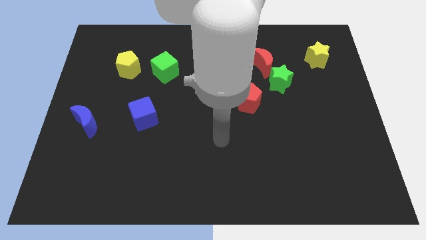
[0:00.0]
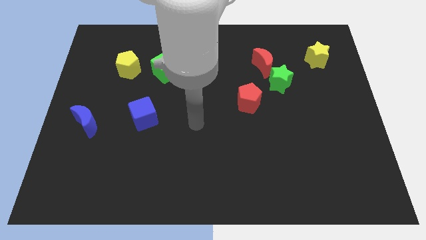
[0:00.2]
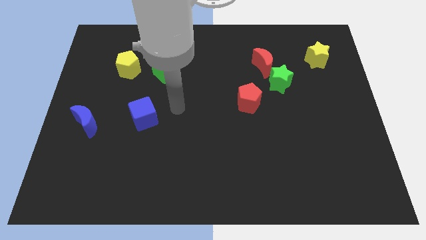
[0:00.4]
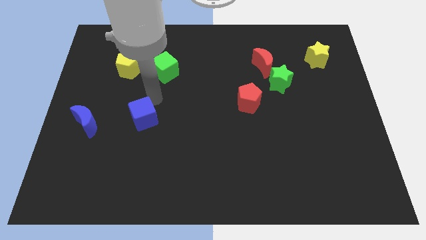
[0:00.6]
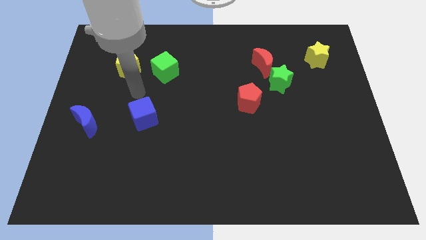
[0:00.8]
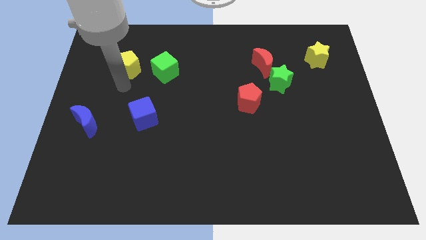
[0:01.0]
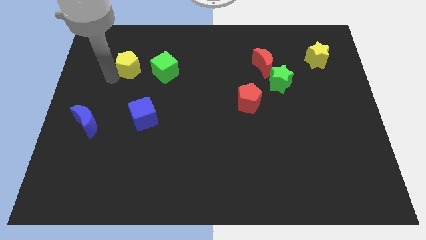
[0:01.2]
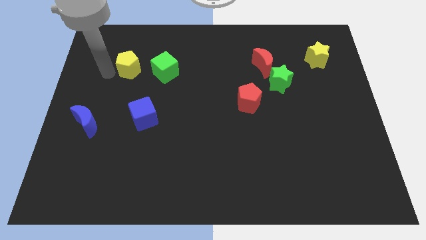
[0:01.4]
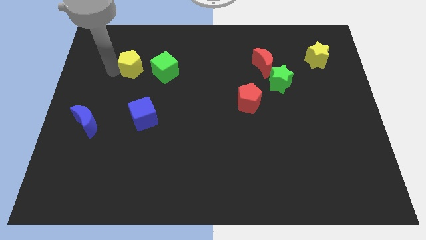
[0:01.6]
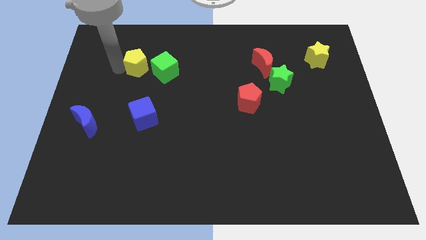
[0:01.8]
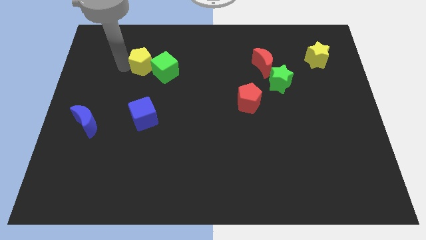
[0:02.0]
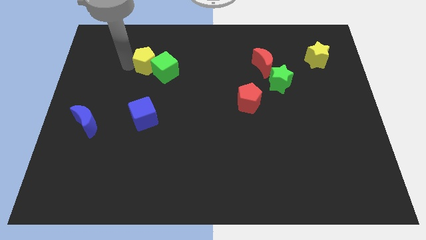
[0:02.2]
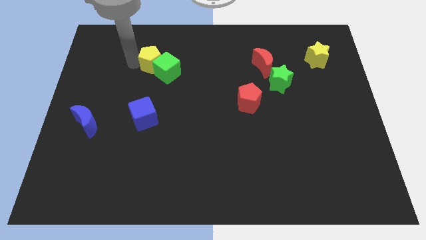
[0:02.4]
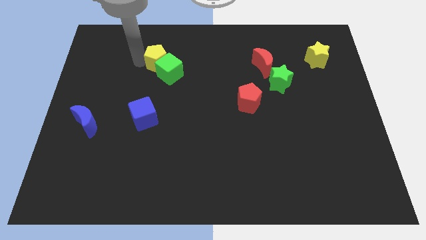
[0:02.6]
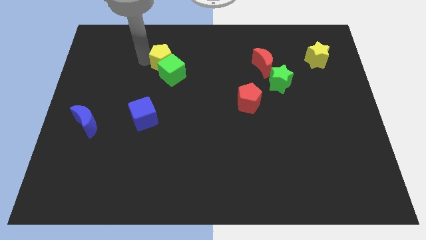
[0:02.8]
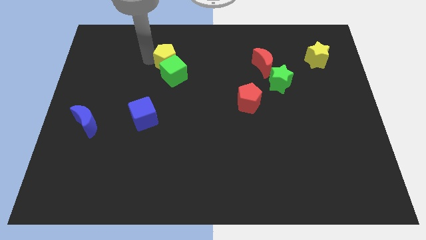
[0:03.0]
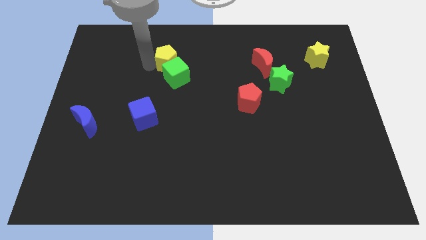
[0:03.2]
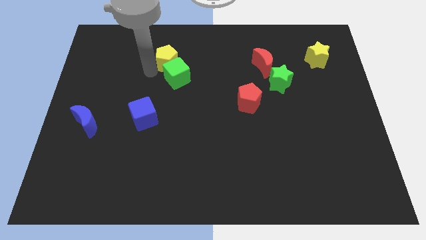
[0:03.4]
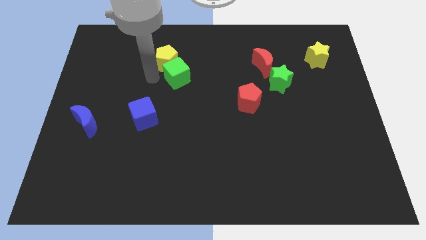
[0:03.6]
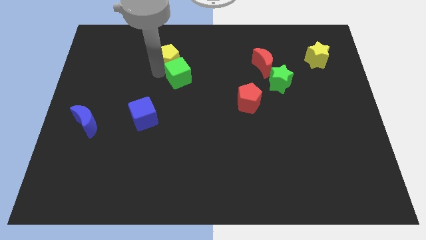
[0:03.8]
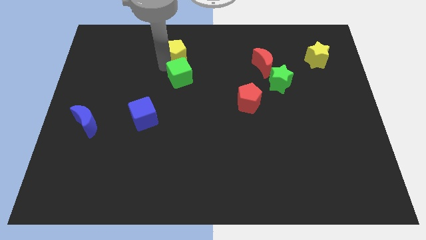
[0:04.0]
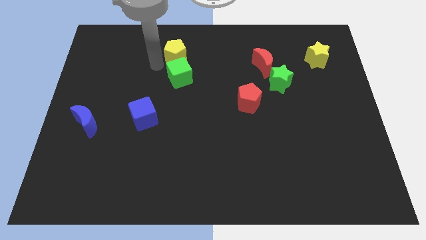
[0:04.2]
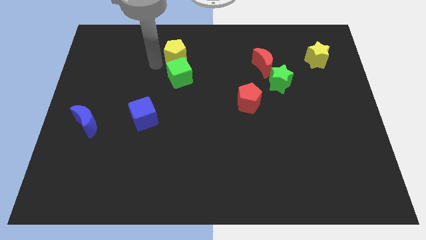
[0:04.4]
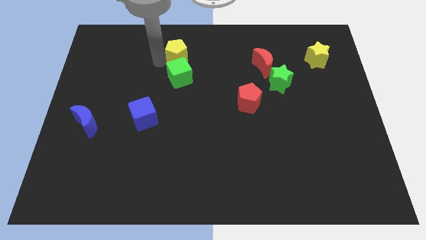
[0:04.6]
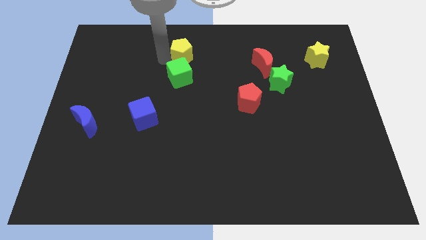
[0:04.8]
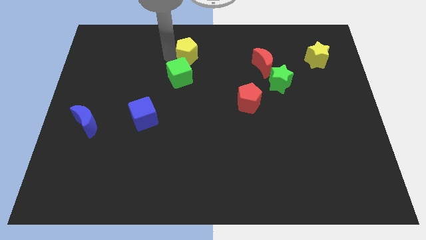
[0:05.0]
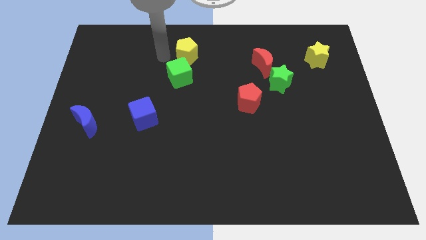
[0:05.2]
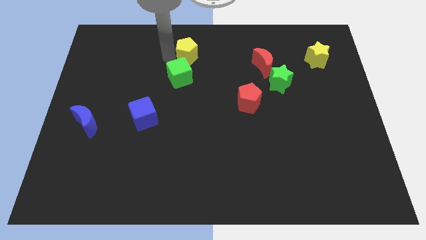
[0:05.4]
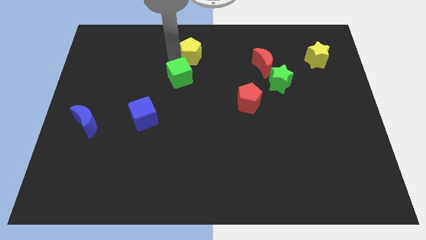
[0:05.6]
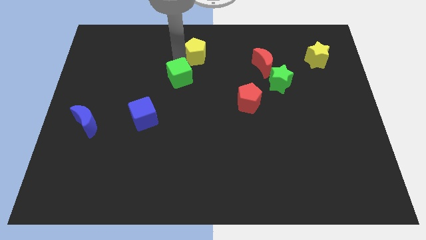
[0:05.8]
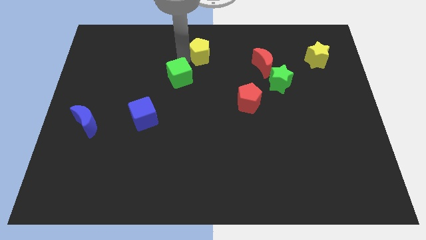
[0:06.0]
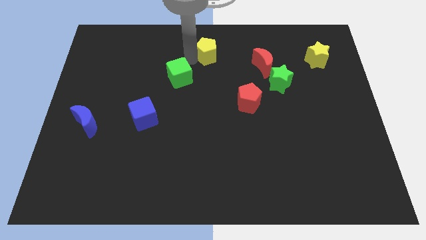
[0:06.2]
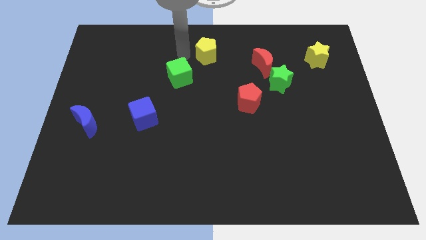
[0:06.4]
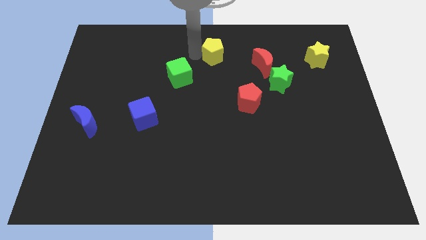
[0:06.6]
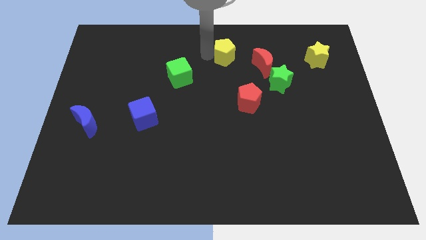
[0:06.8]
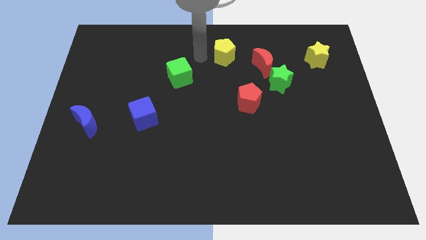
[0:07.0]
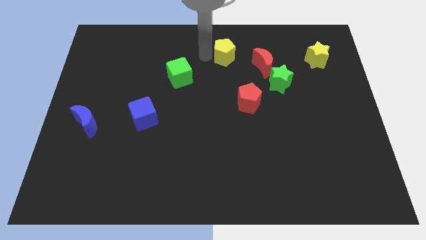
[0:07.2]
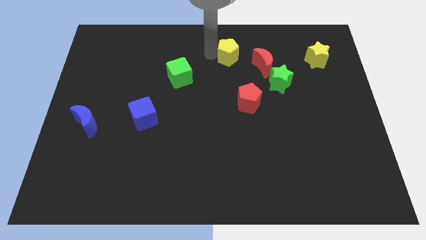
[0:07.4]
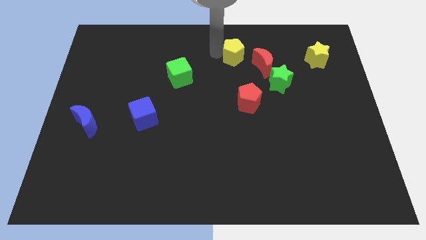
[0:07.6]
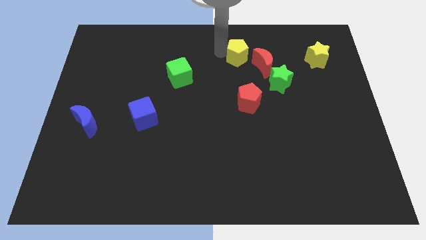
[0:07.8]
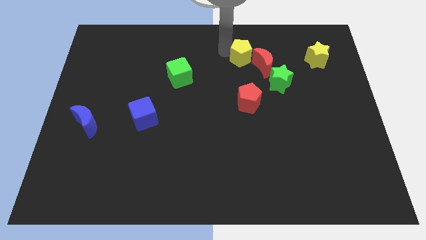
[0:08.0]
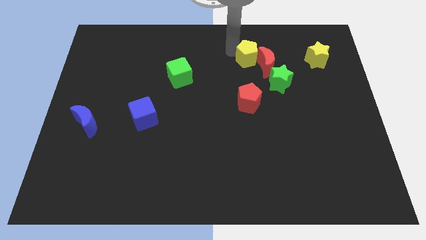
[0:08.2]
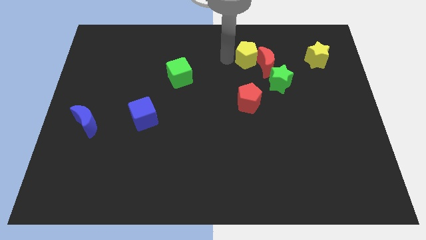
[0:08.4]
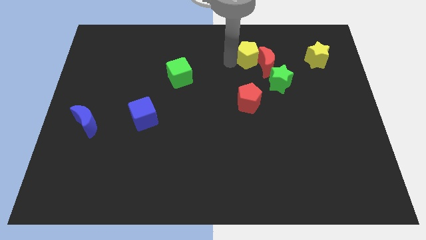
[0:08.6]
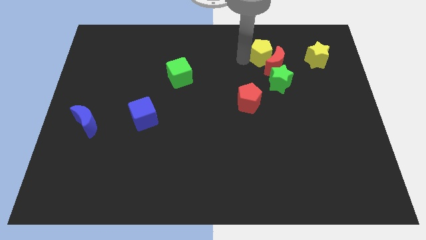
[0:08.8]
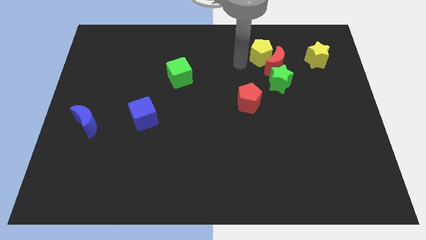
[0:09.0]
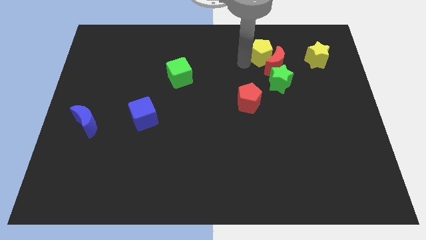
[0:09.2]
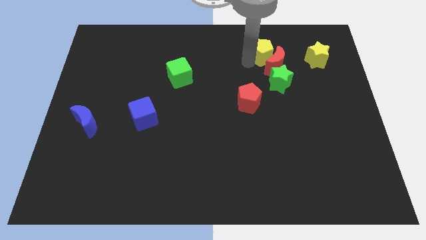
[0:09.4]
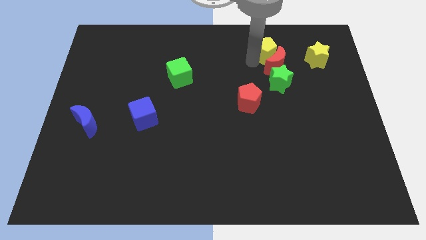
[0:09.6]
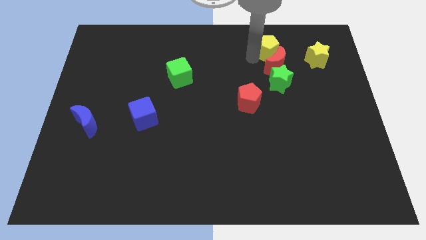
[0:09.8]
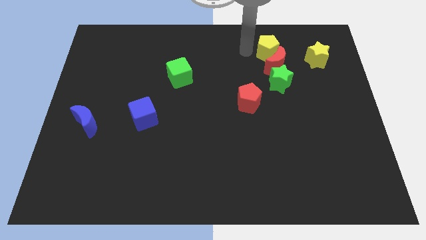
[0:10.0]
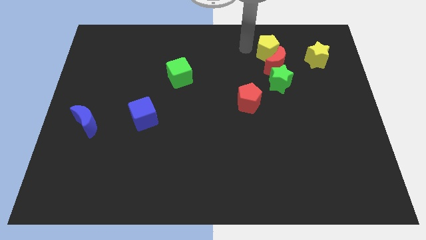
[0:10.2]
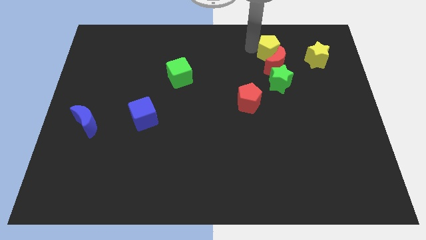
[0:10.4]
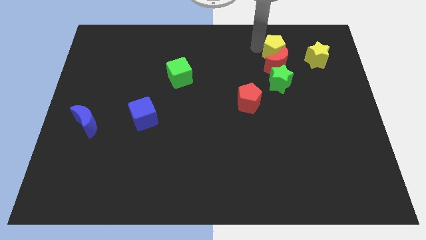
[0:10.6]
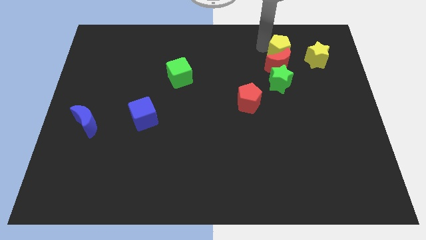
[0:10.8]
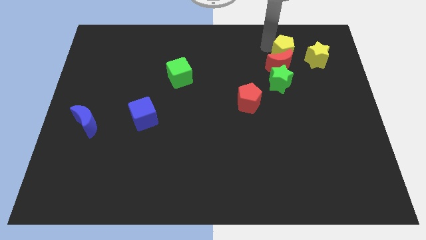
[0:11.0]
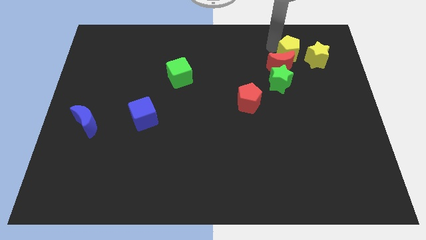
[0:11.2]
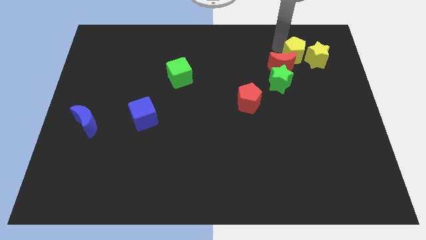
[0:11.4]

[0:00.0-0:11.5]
put the yellow pentagon next to the yellow star

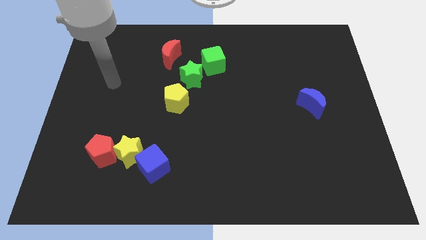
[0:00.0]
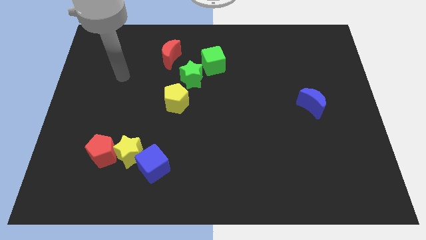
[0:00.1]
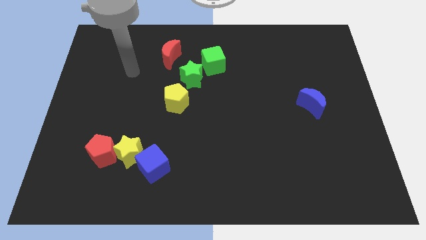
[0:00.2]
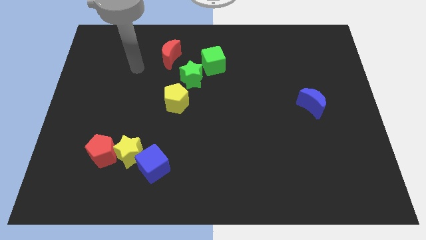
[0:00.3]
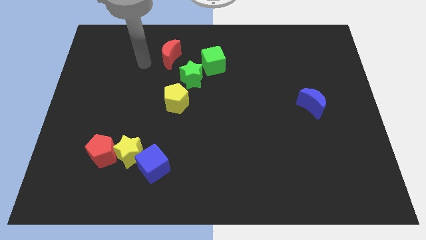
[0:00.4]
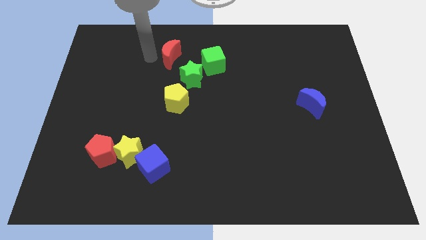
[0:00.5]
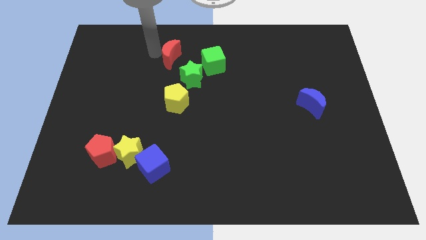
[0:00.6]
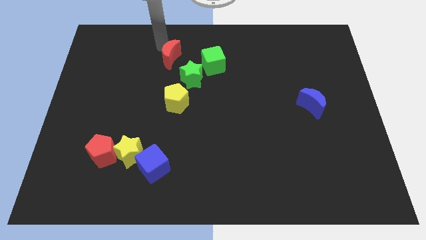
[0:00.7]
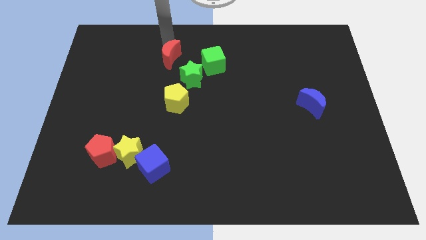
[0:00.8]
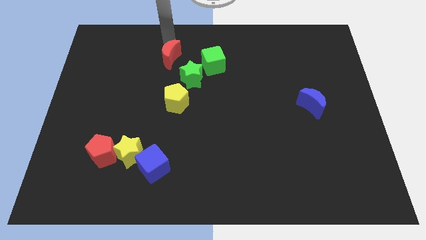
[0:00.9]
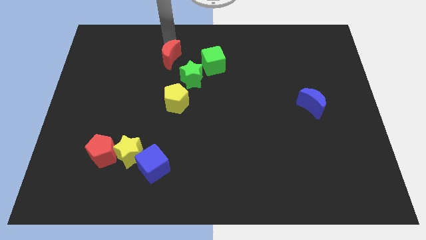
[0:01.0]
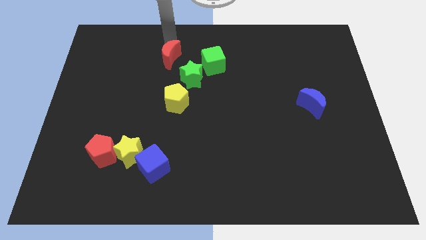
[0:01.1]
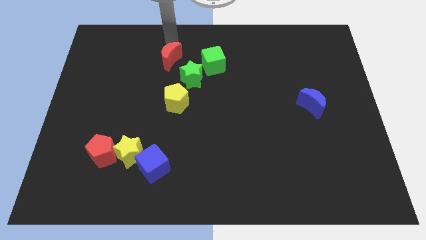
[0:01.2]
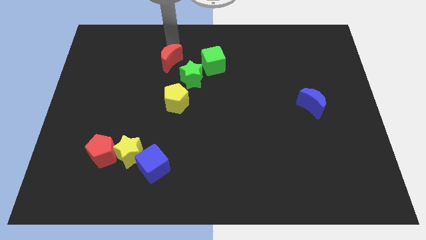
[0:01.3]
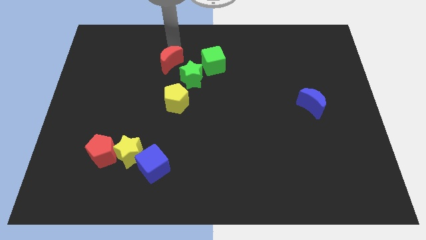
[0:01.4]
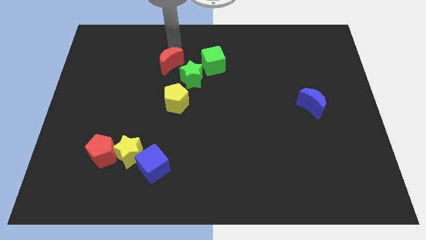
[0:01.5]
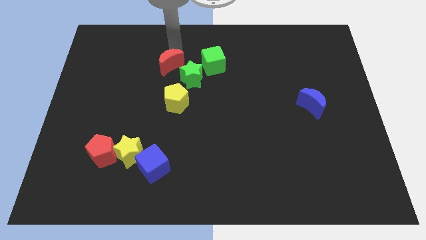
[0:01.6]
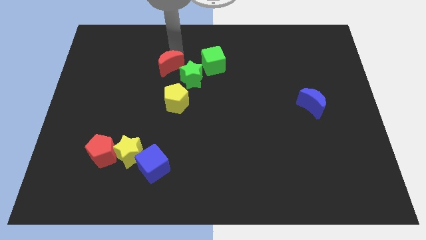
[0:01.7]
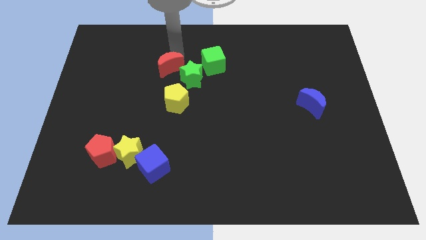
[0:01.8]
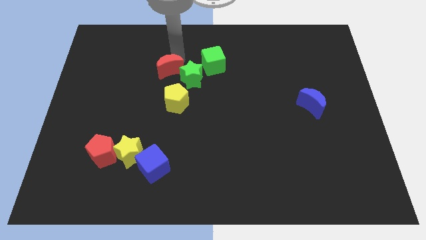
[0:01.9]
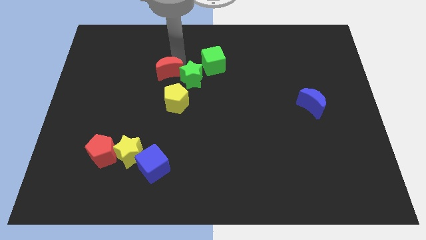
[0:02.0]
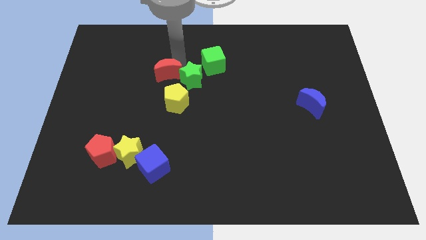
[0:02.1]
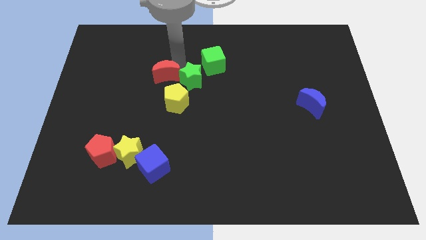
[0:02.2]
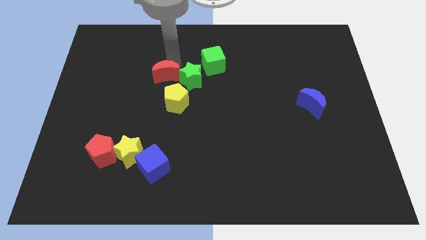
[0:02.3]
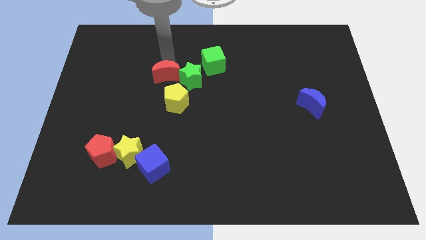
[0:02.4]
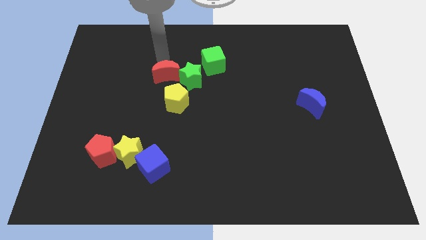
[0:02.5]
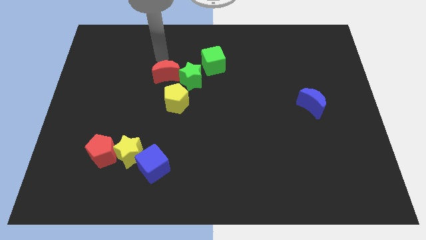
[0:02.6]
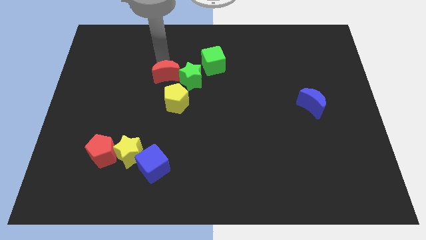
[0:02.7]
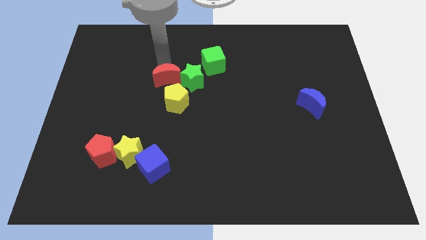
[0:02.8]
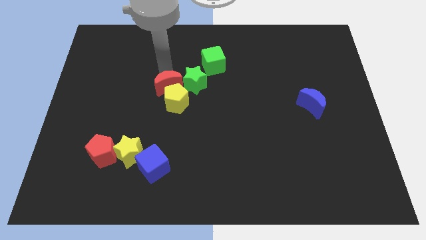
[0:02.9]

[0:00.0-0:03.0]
slide the red moon to the yellow pentagon
